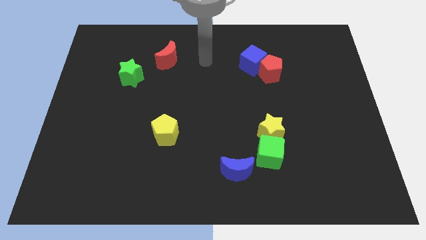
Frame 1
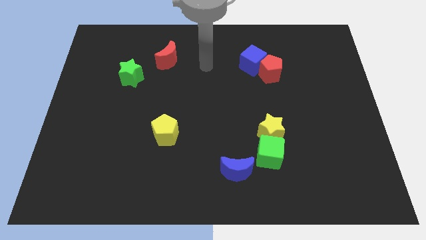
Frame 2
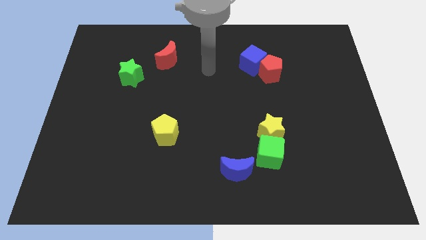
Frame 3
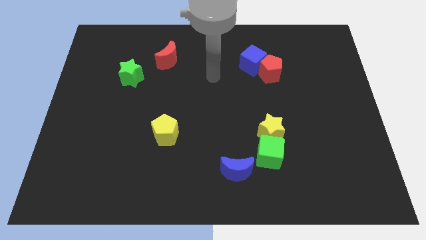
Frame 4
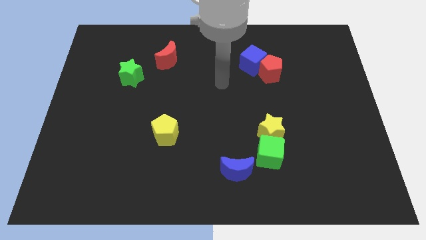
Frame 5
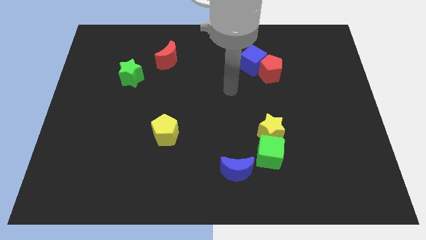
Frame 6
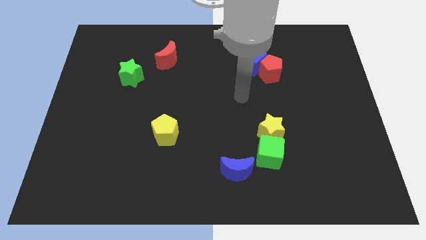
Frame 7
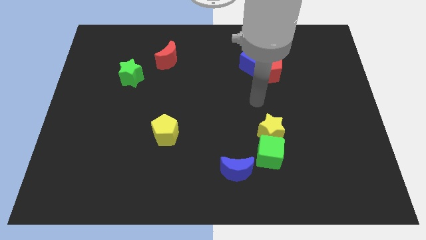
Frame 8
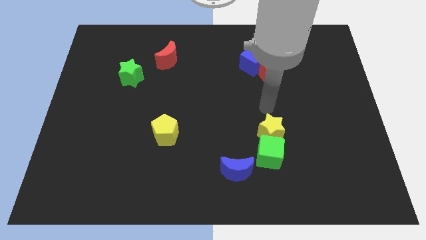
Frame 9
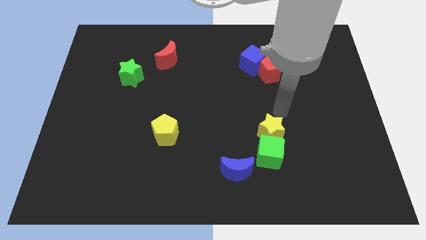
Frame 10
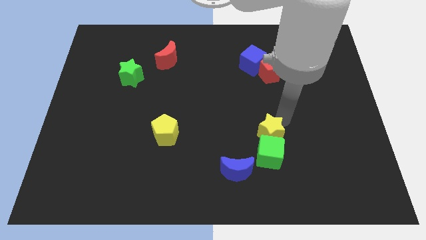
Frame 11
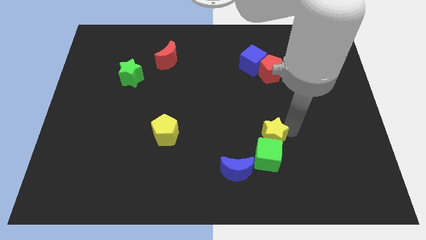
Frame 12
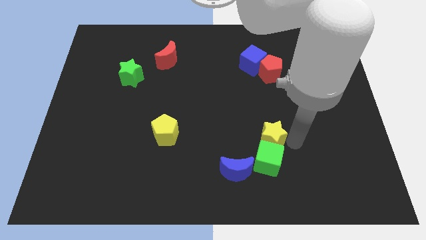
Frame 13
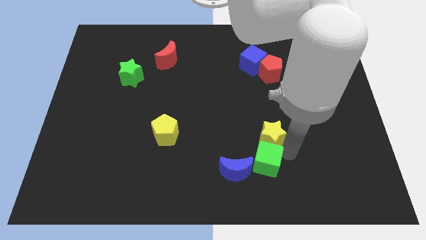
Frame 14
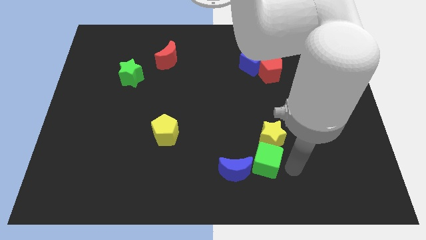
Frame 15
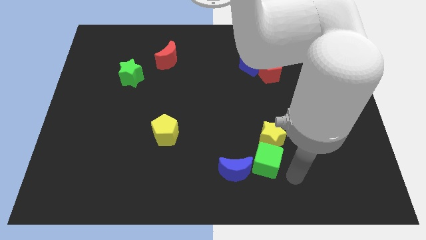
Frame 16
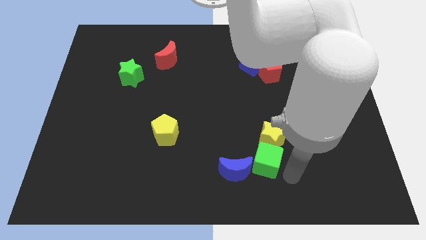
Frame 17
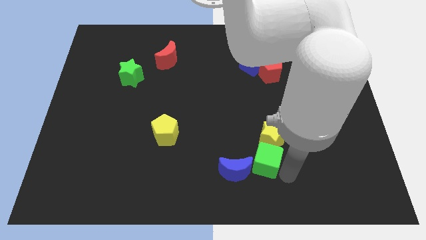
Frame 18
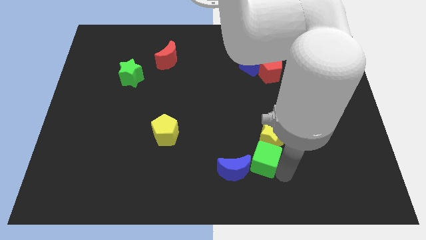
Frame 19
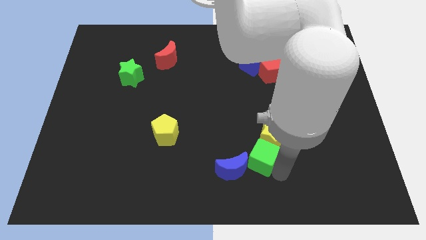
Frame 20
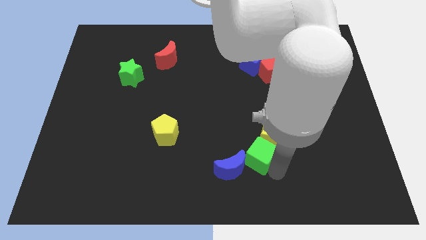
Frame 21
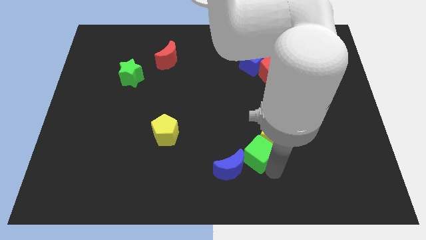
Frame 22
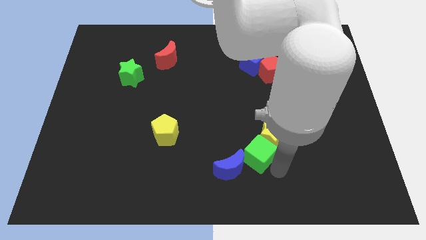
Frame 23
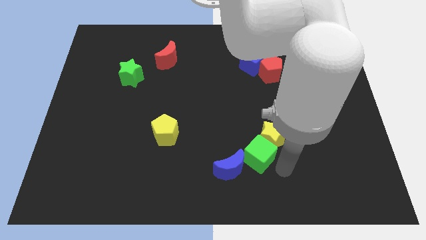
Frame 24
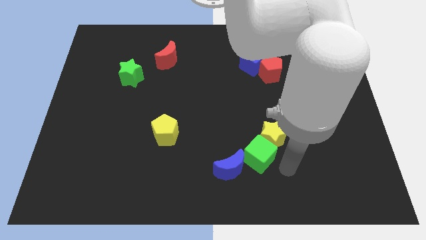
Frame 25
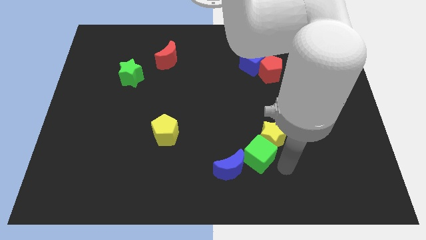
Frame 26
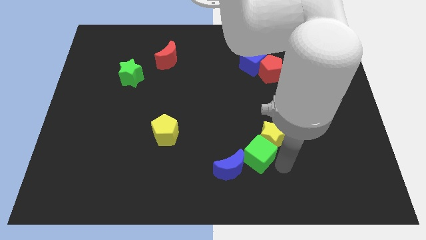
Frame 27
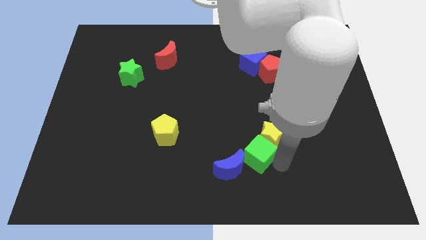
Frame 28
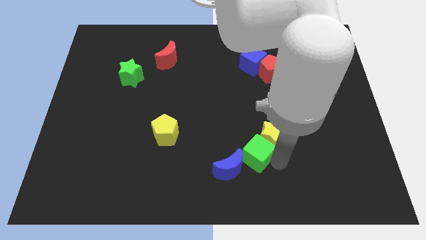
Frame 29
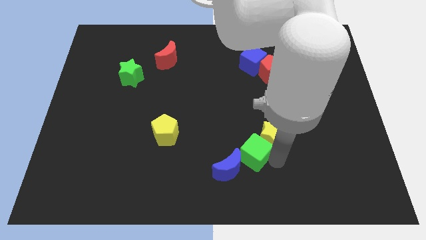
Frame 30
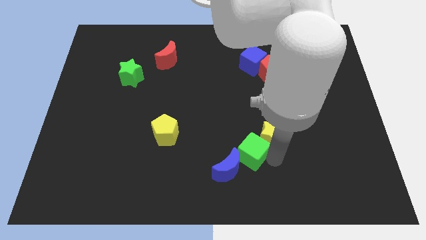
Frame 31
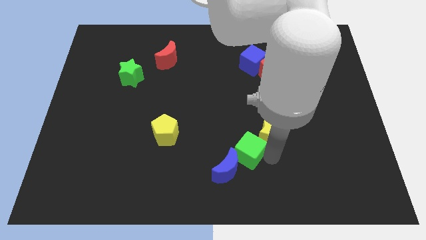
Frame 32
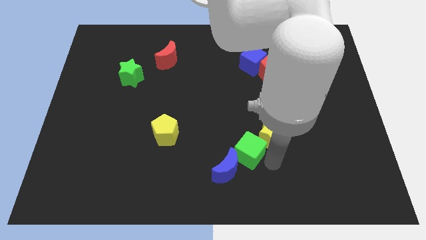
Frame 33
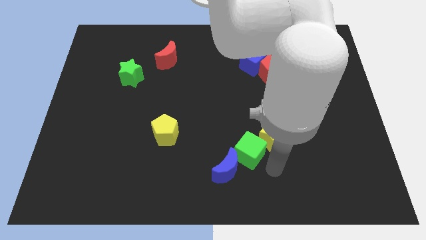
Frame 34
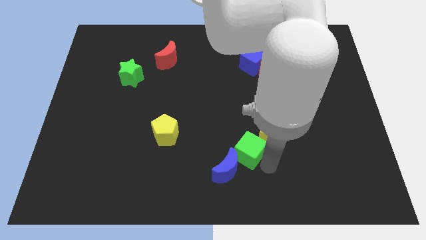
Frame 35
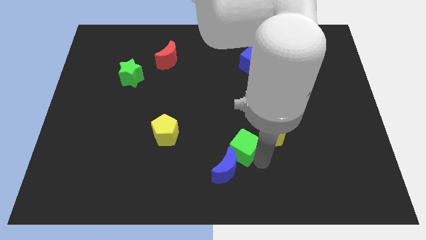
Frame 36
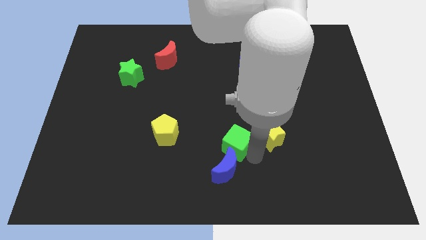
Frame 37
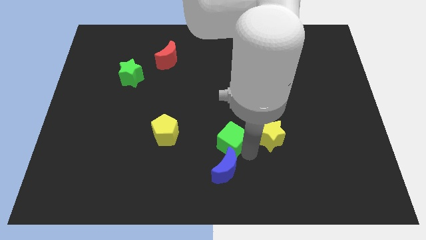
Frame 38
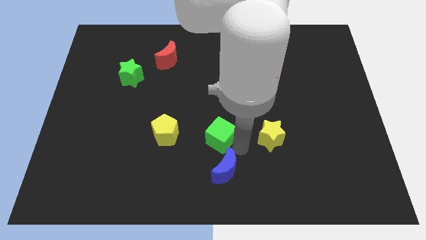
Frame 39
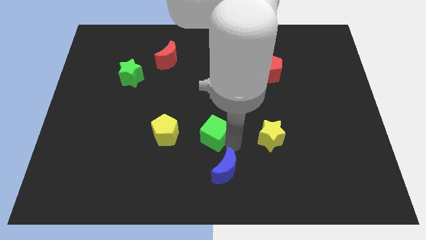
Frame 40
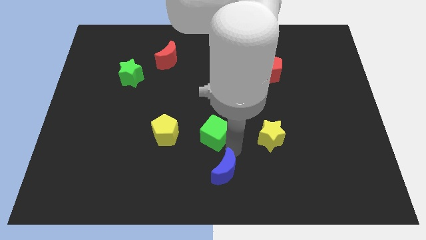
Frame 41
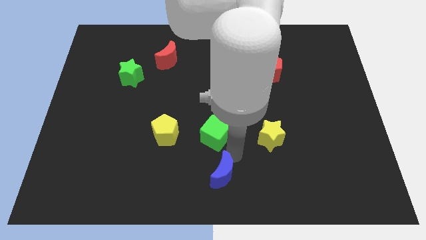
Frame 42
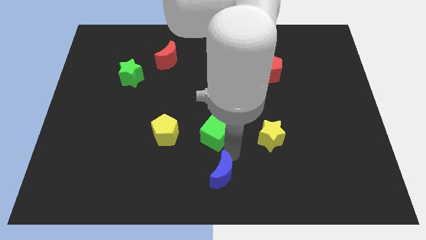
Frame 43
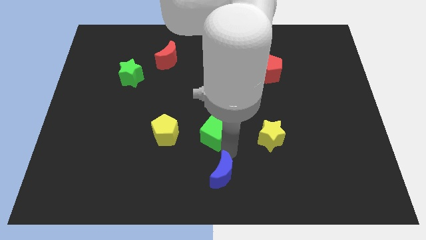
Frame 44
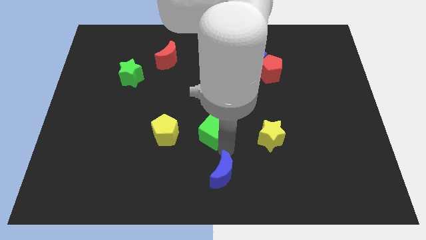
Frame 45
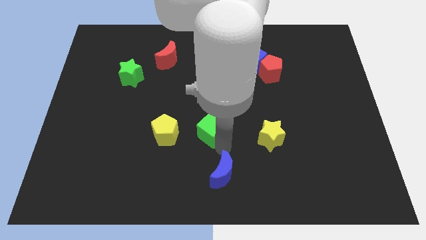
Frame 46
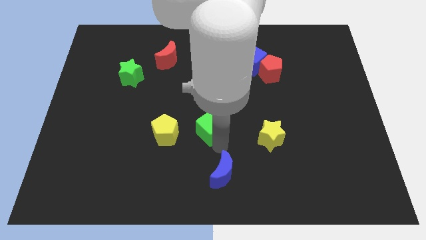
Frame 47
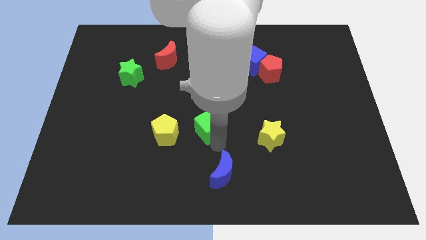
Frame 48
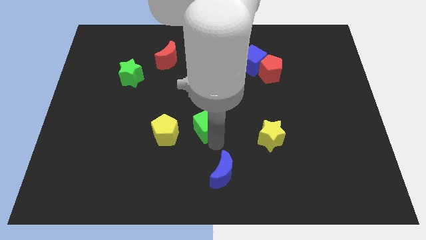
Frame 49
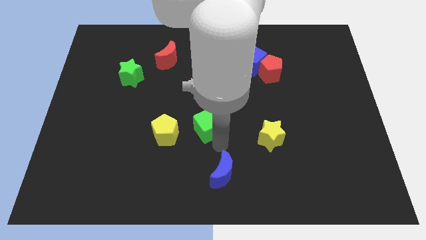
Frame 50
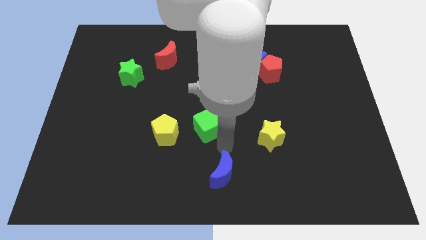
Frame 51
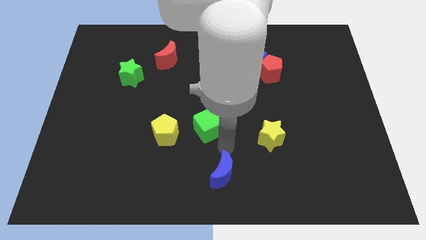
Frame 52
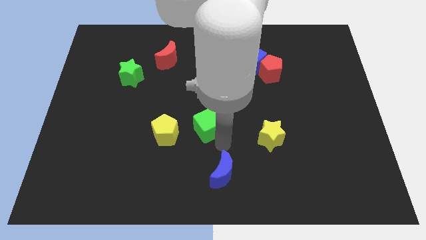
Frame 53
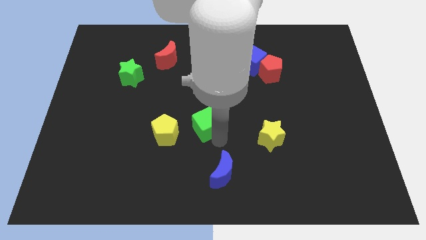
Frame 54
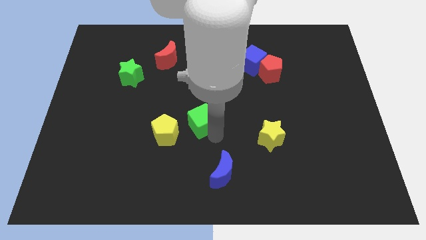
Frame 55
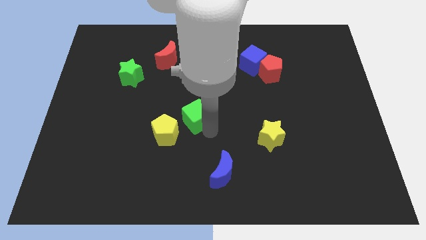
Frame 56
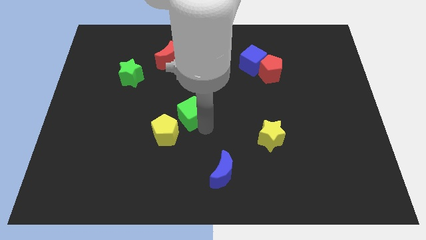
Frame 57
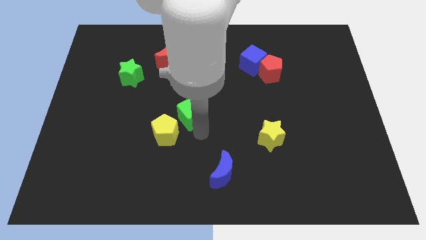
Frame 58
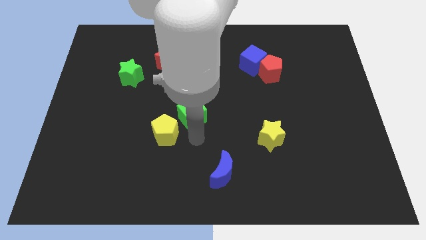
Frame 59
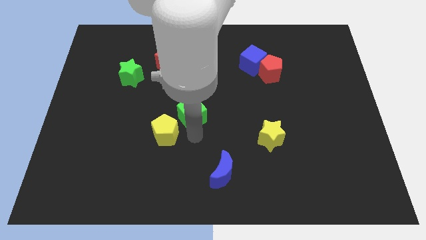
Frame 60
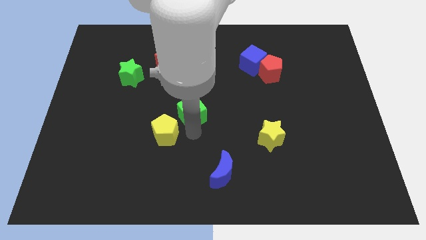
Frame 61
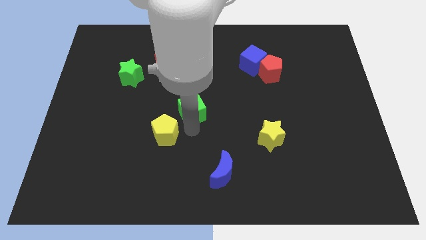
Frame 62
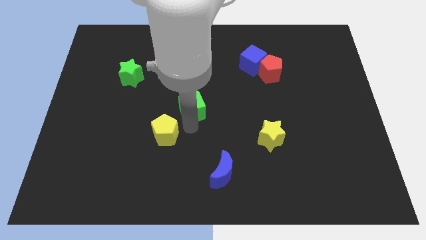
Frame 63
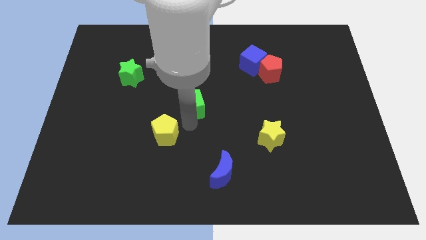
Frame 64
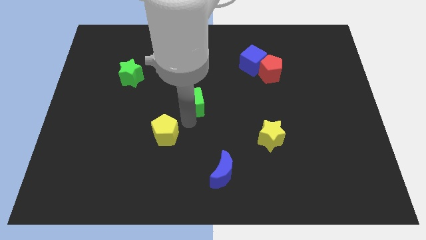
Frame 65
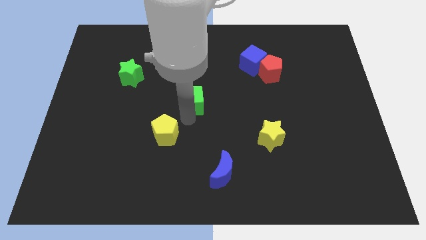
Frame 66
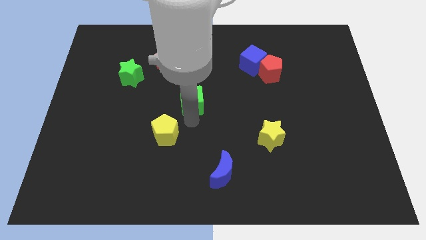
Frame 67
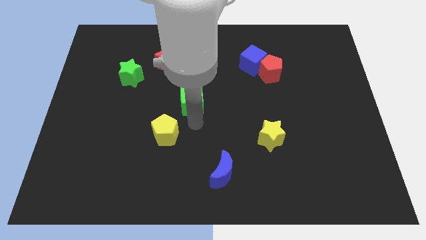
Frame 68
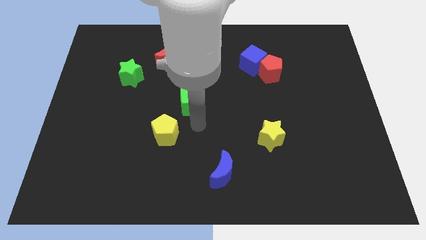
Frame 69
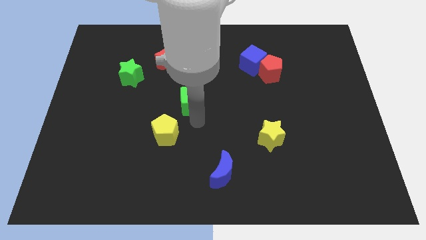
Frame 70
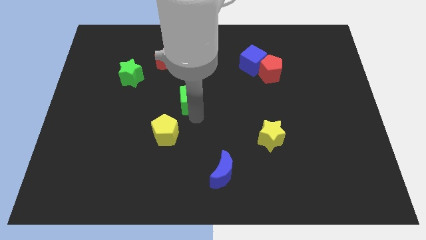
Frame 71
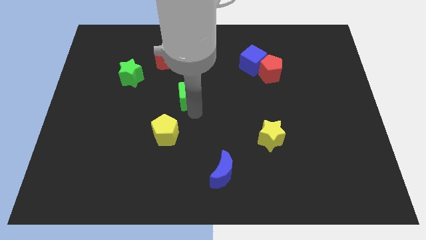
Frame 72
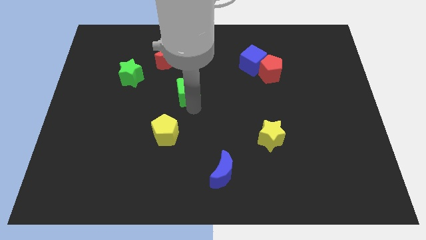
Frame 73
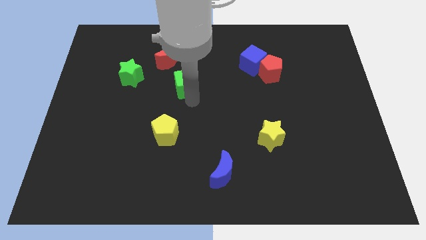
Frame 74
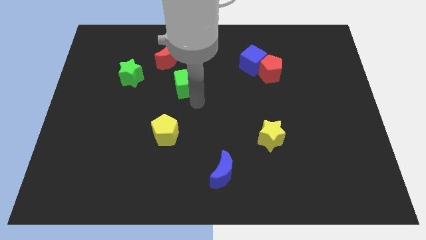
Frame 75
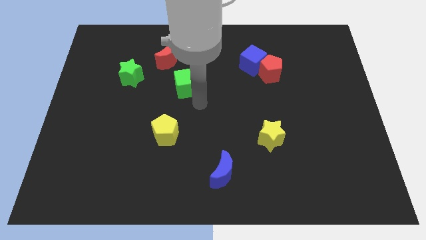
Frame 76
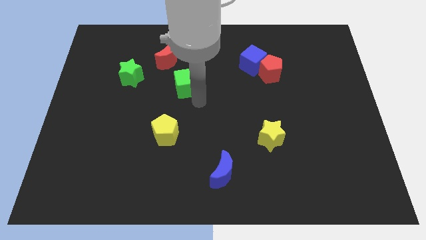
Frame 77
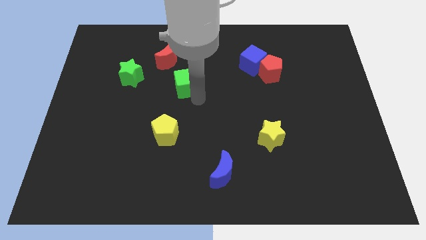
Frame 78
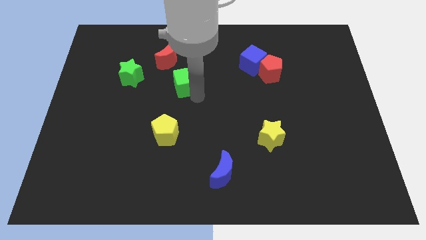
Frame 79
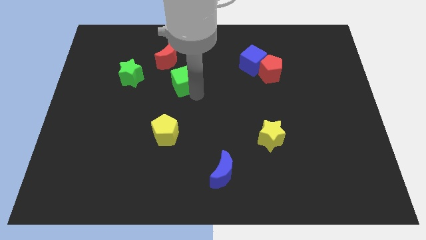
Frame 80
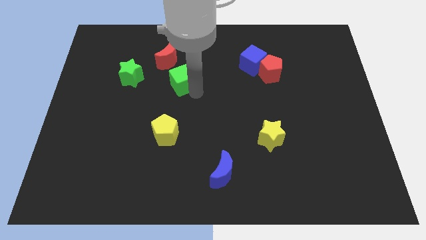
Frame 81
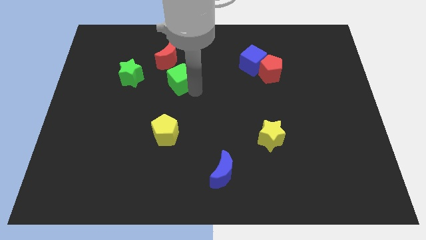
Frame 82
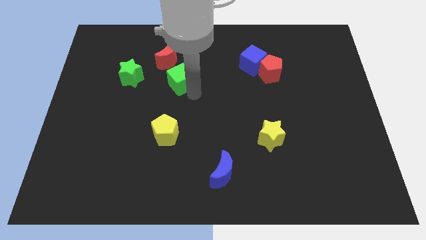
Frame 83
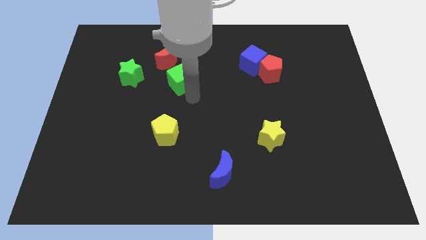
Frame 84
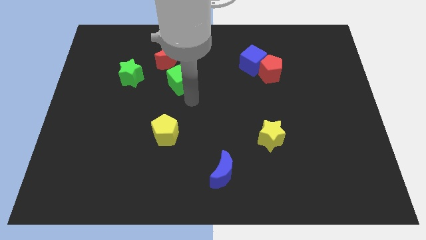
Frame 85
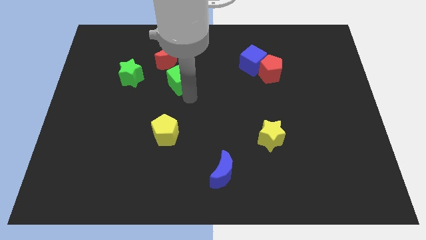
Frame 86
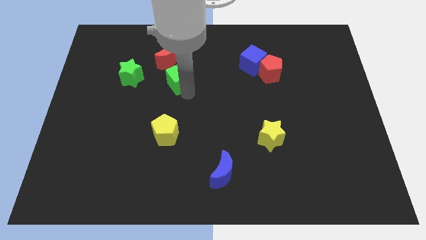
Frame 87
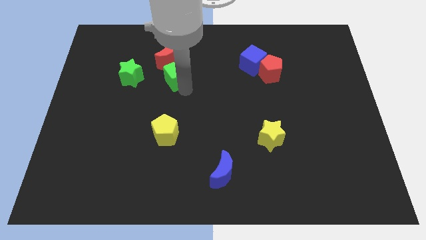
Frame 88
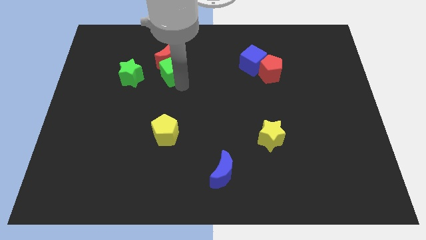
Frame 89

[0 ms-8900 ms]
move the green cube next to the red moon
